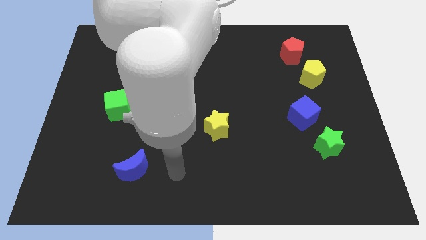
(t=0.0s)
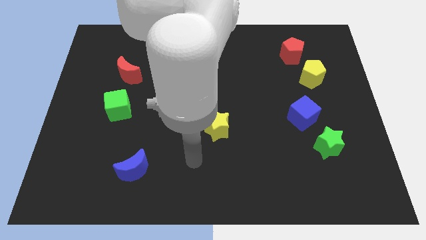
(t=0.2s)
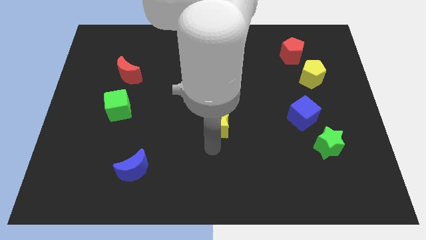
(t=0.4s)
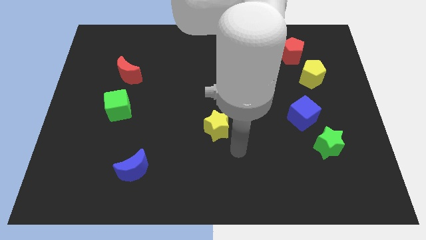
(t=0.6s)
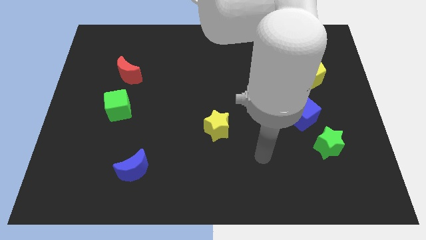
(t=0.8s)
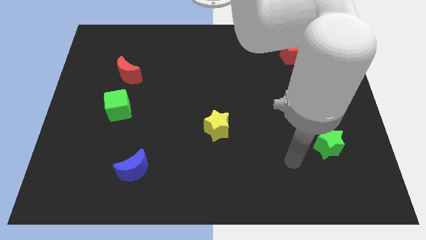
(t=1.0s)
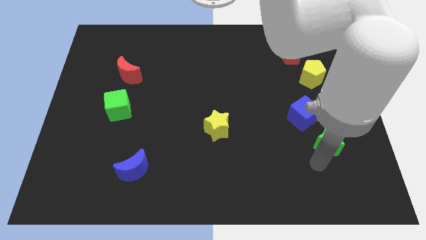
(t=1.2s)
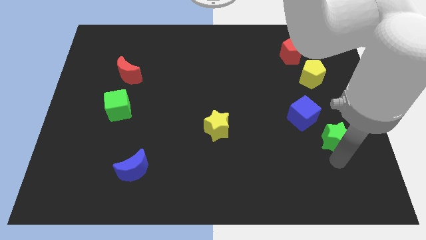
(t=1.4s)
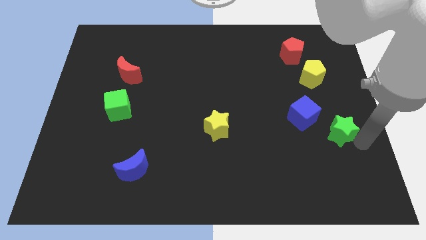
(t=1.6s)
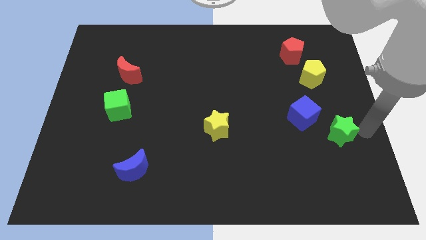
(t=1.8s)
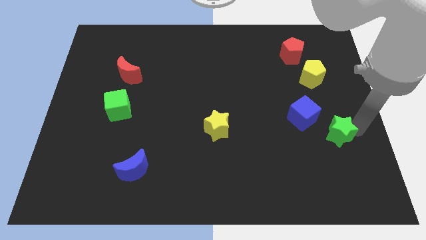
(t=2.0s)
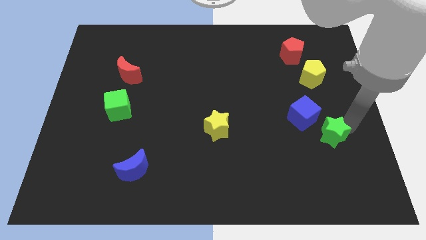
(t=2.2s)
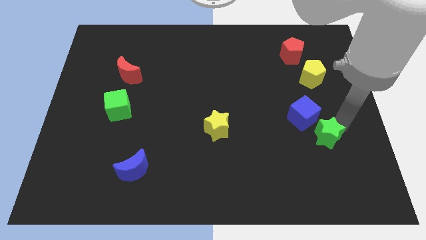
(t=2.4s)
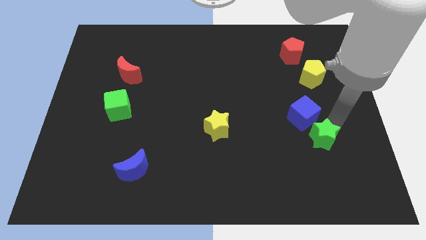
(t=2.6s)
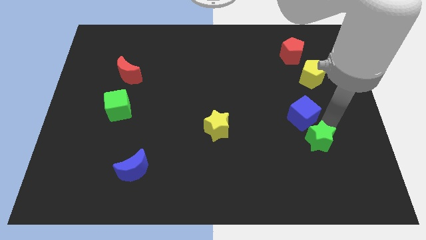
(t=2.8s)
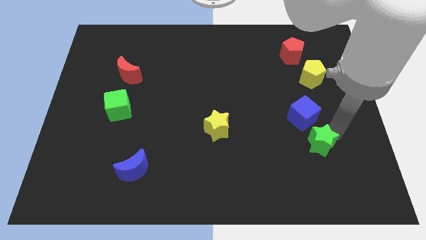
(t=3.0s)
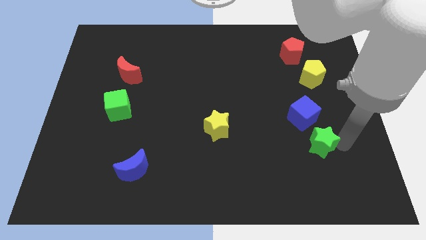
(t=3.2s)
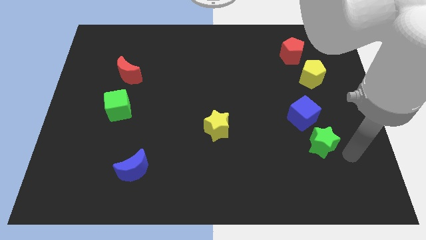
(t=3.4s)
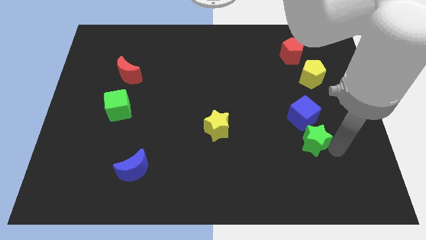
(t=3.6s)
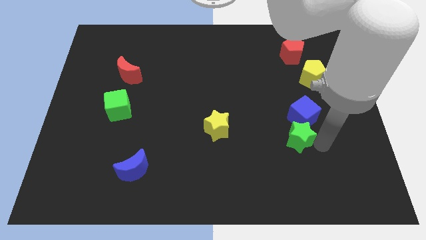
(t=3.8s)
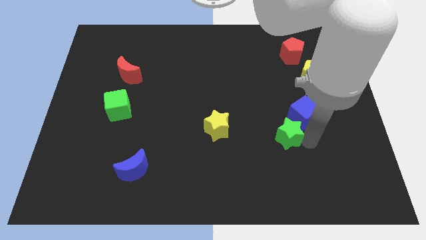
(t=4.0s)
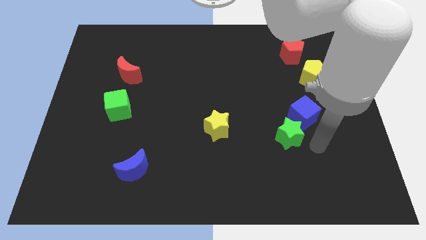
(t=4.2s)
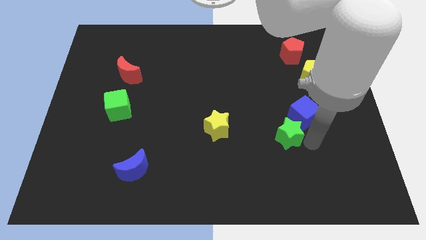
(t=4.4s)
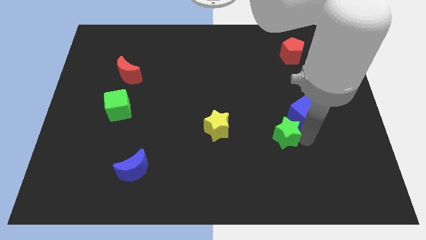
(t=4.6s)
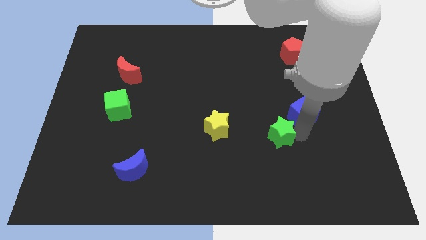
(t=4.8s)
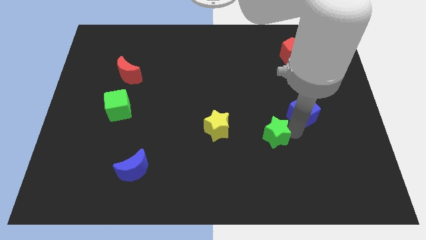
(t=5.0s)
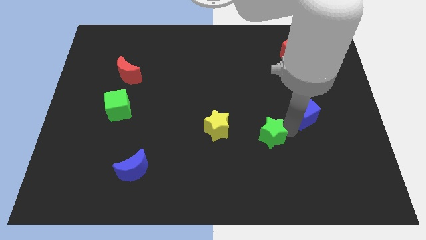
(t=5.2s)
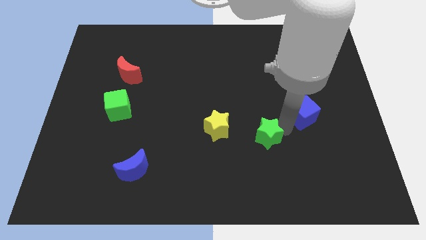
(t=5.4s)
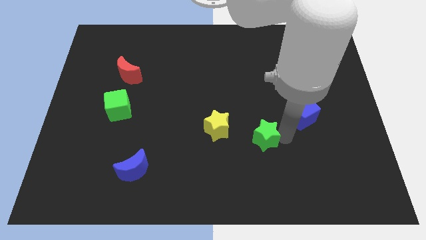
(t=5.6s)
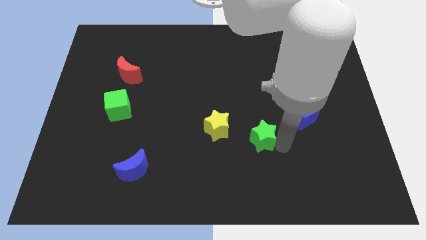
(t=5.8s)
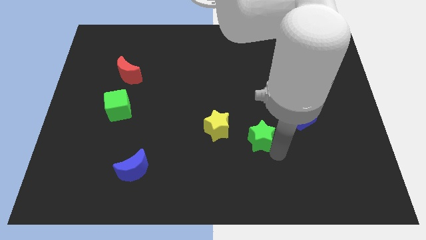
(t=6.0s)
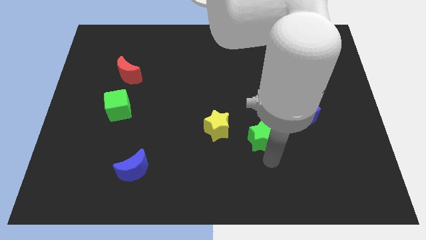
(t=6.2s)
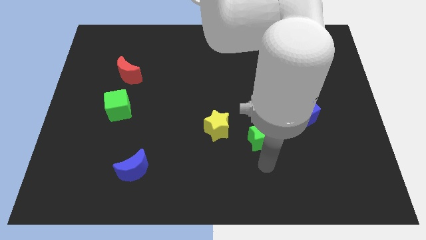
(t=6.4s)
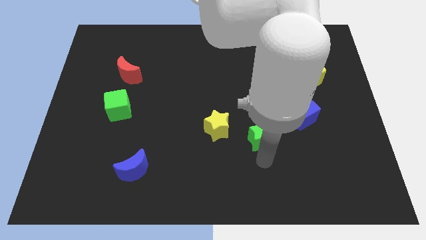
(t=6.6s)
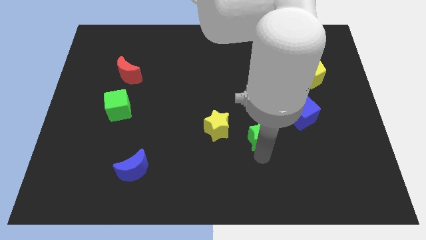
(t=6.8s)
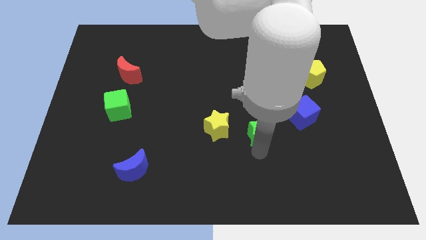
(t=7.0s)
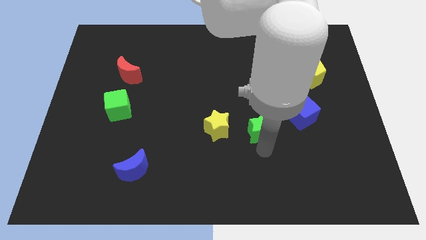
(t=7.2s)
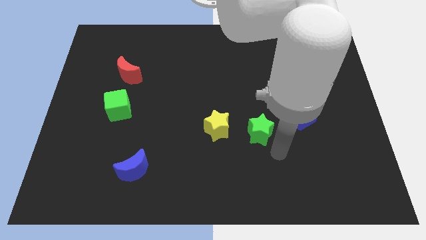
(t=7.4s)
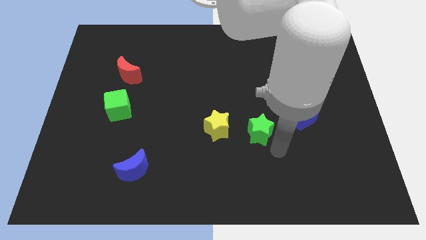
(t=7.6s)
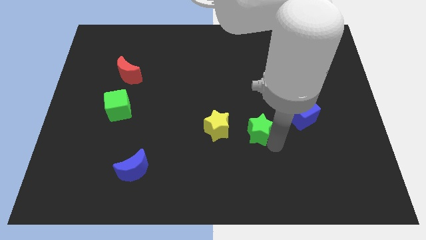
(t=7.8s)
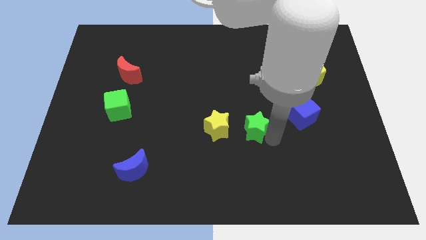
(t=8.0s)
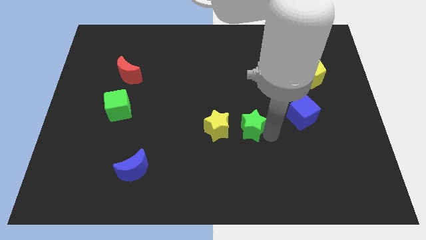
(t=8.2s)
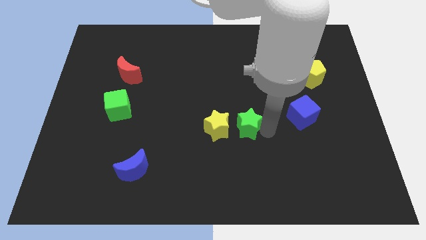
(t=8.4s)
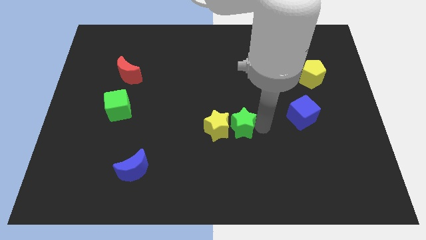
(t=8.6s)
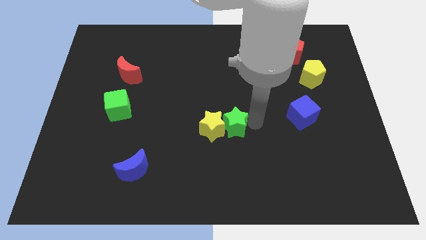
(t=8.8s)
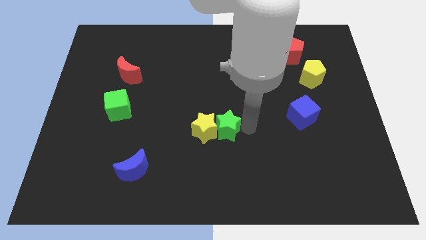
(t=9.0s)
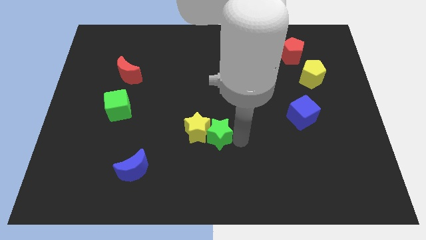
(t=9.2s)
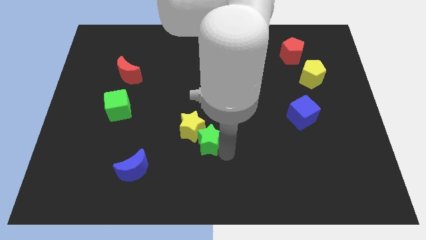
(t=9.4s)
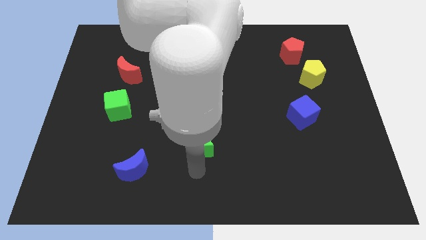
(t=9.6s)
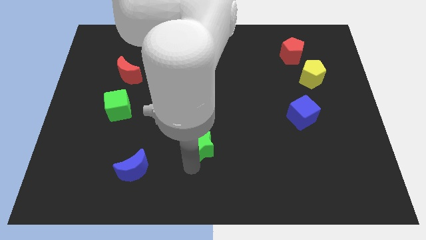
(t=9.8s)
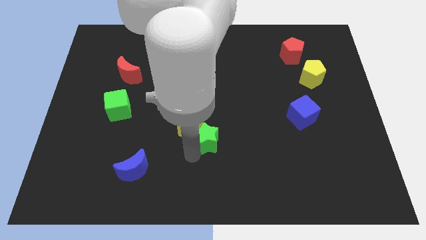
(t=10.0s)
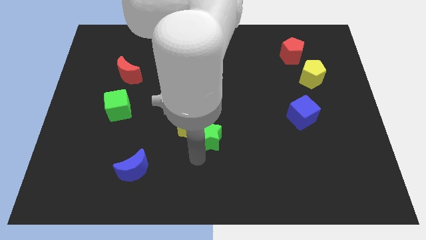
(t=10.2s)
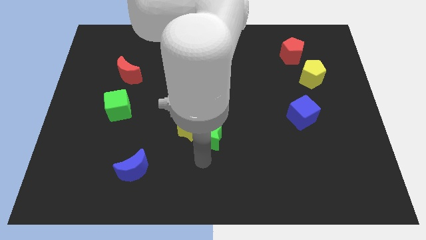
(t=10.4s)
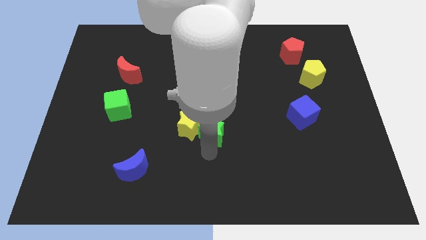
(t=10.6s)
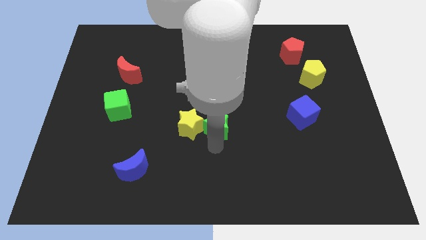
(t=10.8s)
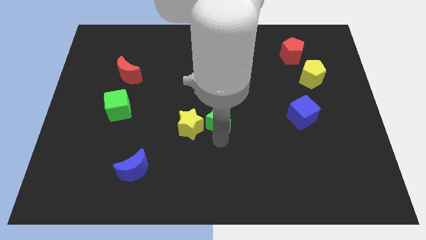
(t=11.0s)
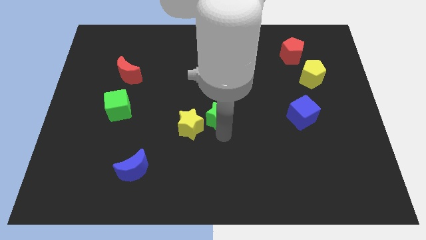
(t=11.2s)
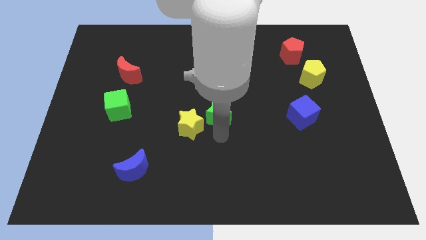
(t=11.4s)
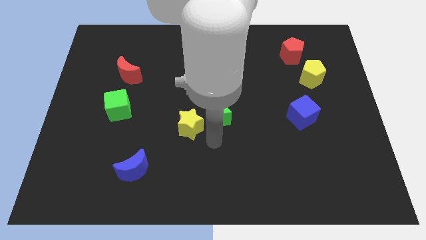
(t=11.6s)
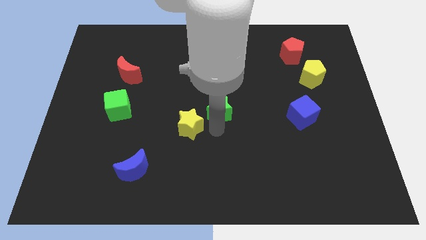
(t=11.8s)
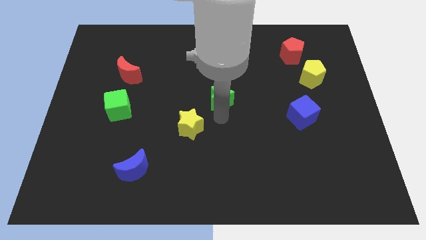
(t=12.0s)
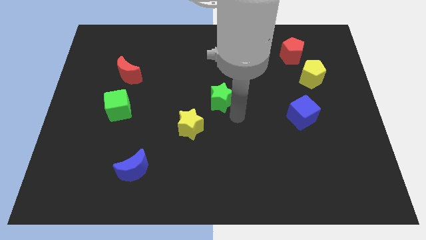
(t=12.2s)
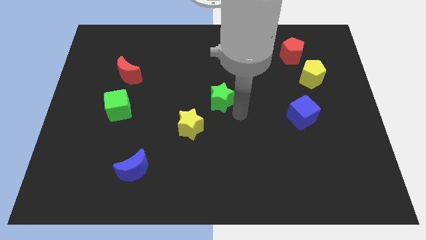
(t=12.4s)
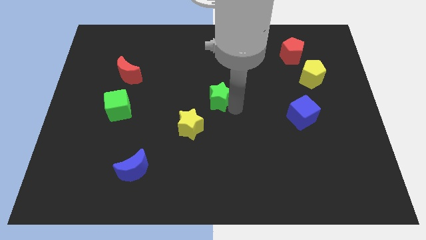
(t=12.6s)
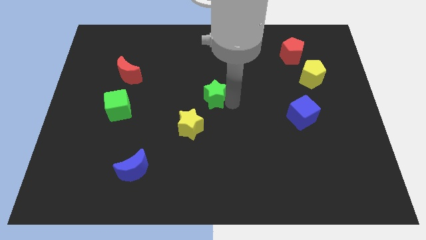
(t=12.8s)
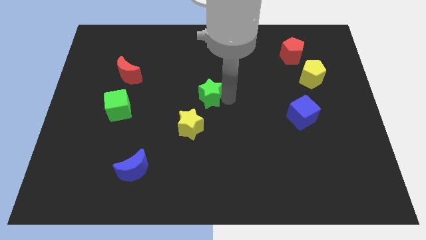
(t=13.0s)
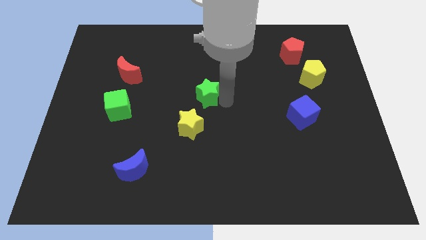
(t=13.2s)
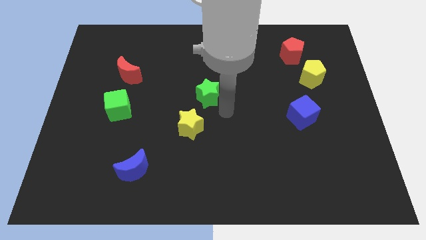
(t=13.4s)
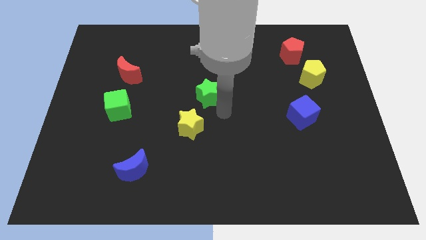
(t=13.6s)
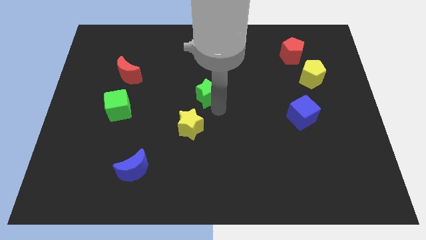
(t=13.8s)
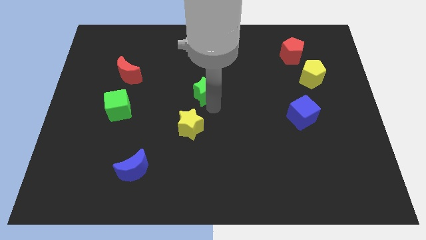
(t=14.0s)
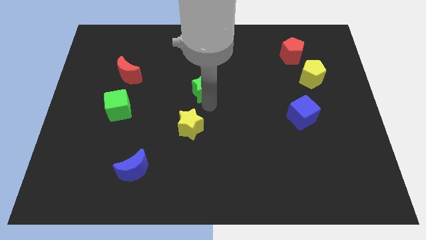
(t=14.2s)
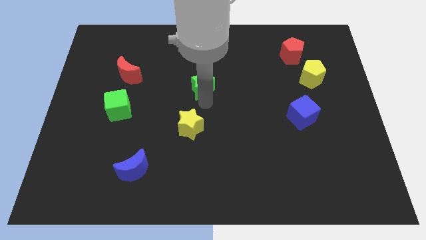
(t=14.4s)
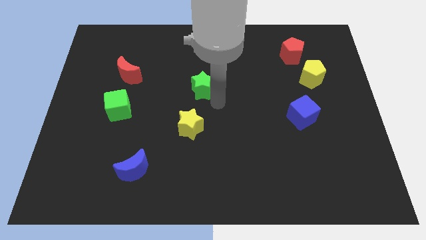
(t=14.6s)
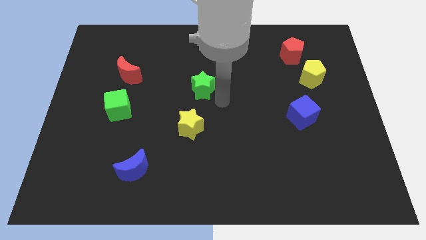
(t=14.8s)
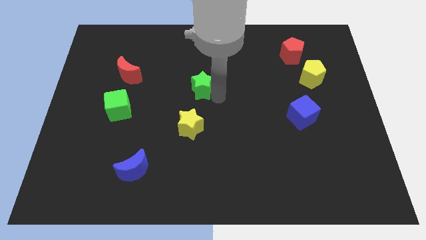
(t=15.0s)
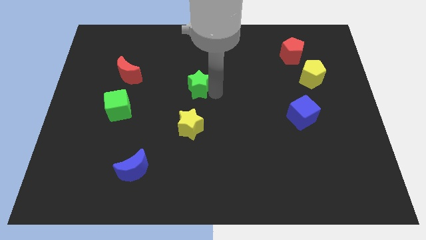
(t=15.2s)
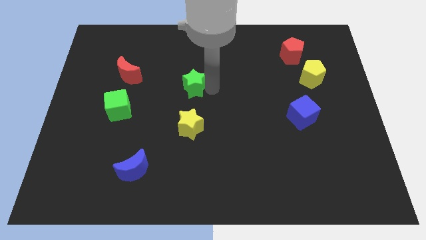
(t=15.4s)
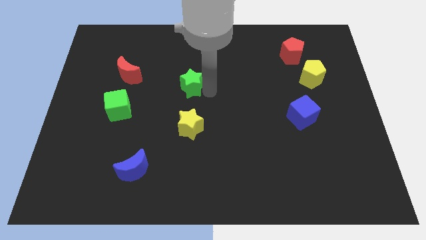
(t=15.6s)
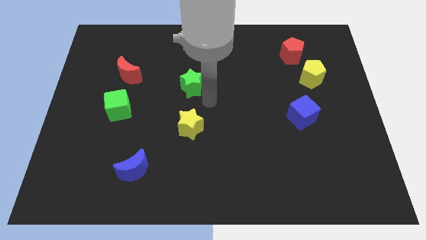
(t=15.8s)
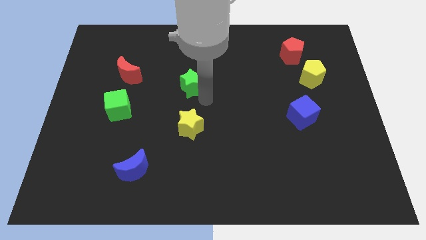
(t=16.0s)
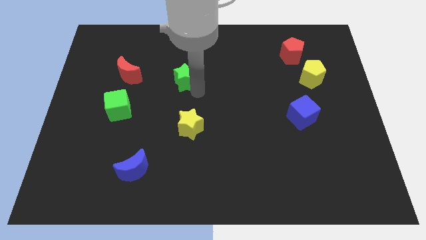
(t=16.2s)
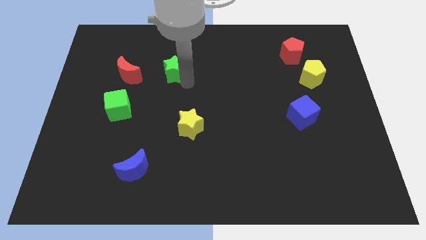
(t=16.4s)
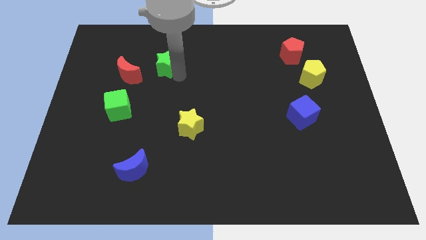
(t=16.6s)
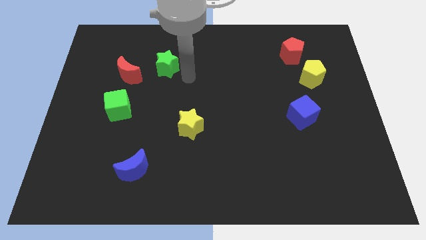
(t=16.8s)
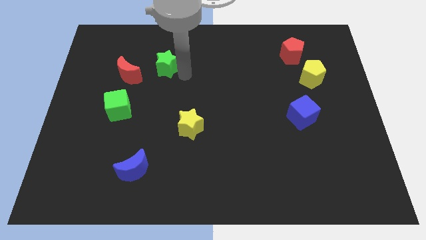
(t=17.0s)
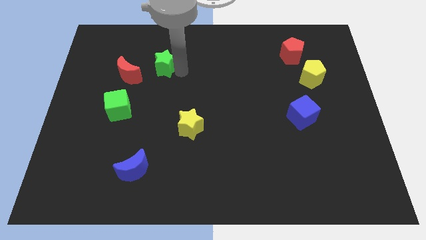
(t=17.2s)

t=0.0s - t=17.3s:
slide the green star to the top right side of the red moon
